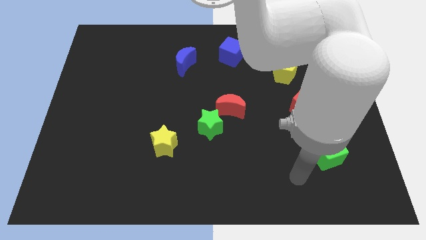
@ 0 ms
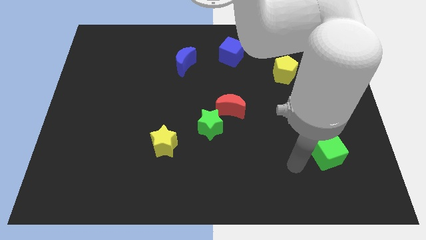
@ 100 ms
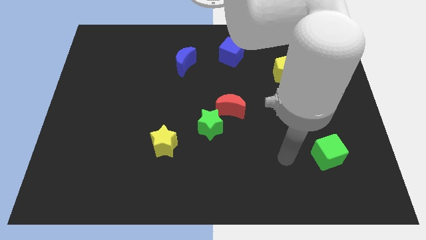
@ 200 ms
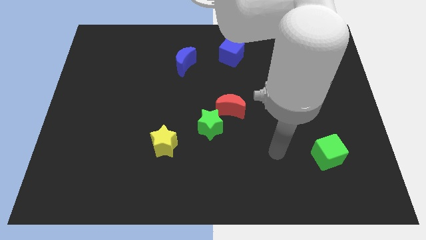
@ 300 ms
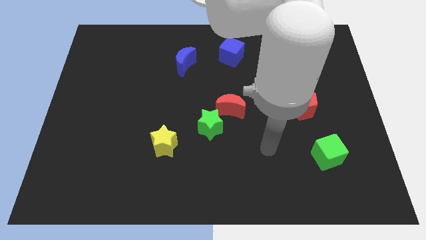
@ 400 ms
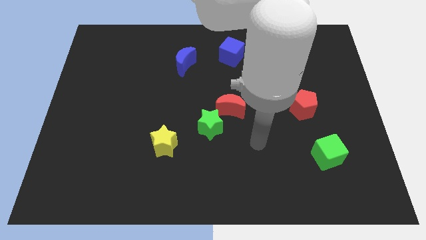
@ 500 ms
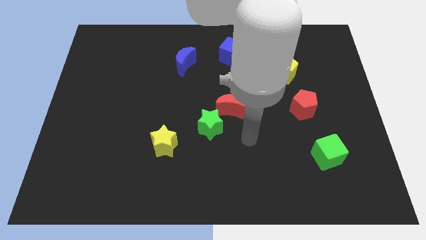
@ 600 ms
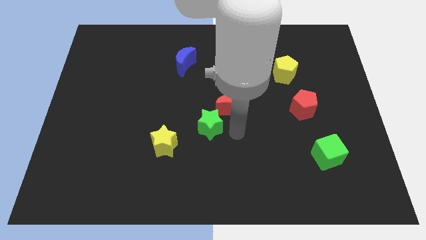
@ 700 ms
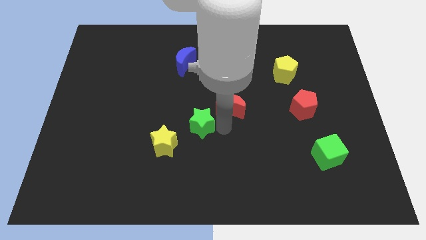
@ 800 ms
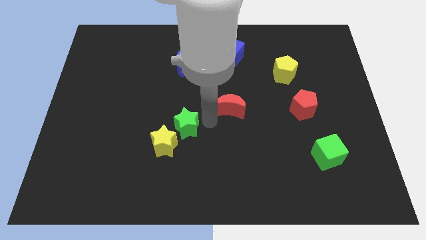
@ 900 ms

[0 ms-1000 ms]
move the red moon away from the green star

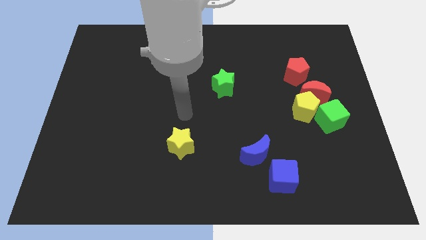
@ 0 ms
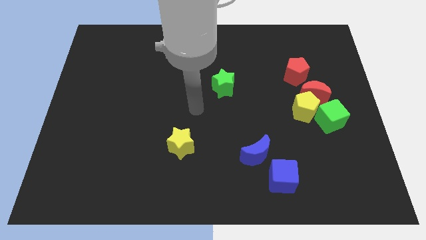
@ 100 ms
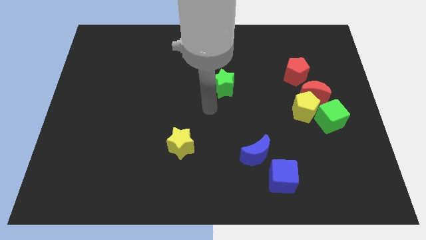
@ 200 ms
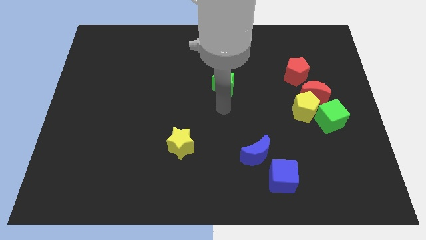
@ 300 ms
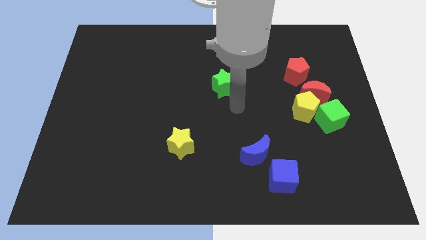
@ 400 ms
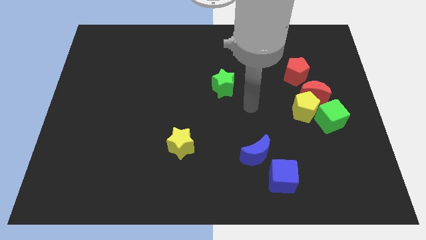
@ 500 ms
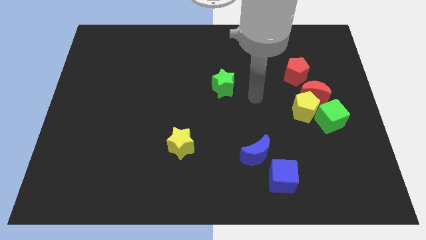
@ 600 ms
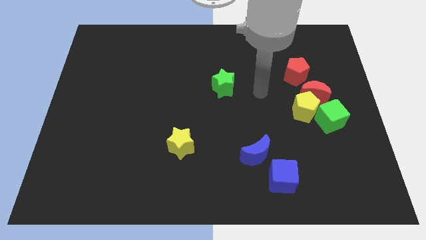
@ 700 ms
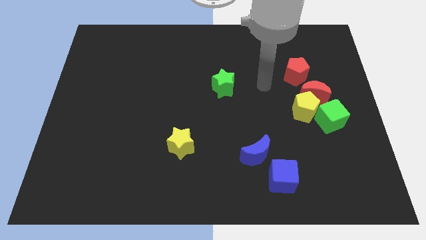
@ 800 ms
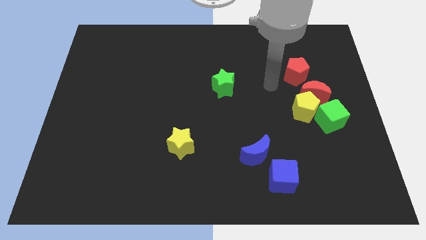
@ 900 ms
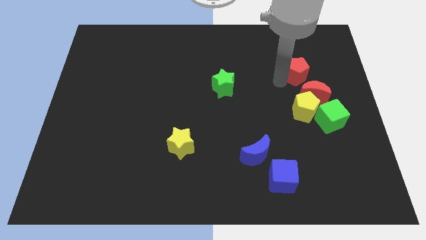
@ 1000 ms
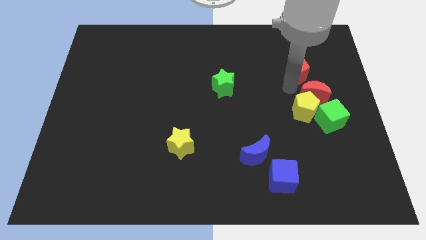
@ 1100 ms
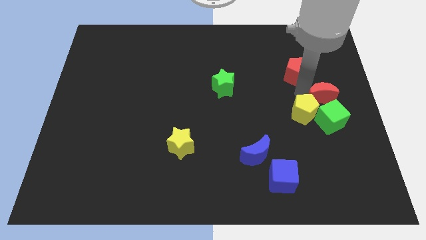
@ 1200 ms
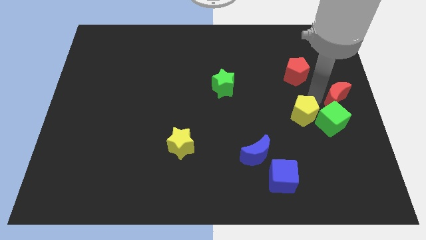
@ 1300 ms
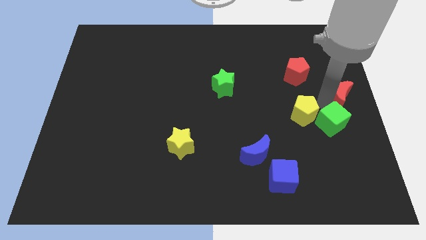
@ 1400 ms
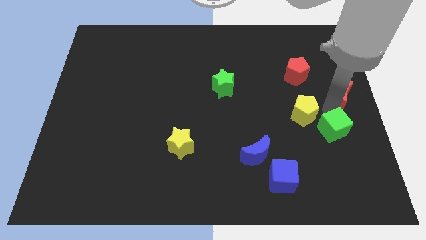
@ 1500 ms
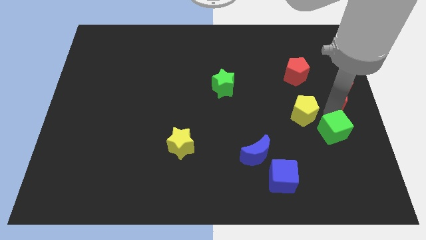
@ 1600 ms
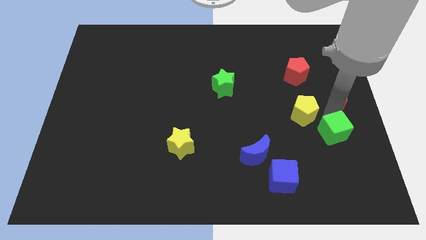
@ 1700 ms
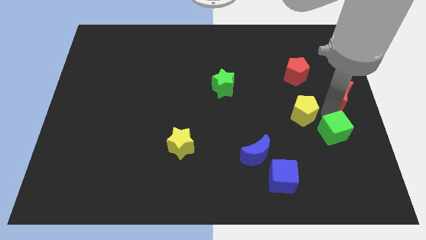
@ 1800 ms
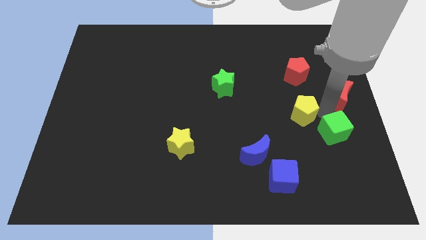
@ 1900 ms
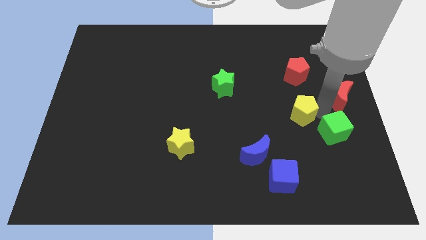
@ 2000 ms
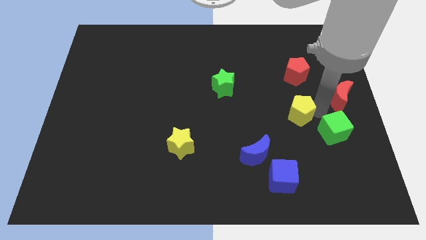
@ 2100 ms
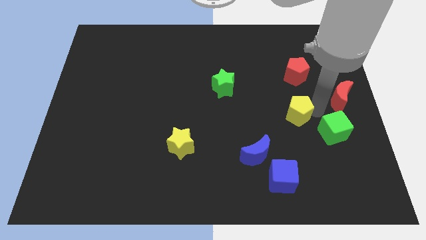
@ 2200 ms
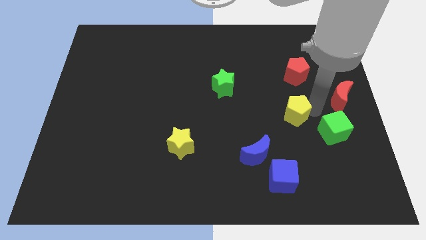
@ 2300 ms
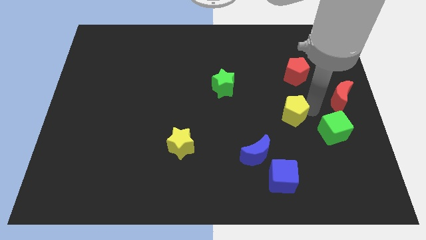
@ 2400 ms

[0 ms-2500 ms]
separate the yellow pentagon from the red moon and green cube

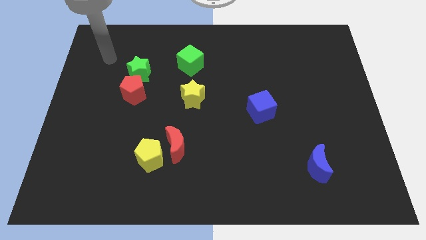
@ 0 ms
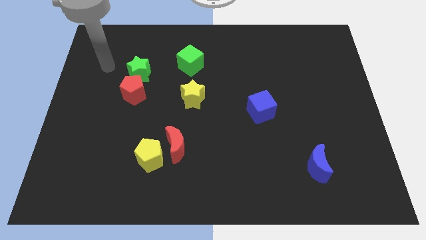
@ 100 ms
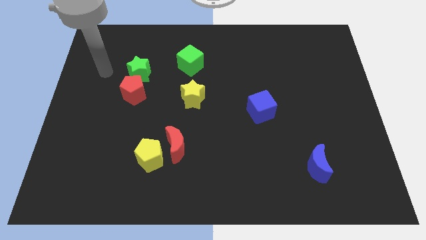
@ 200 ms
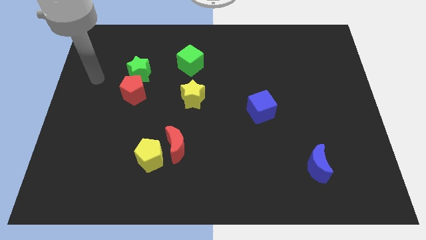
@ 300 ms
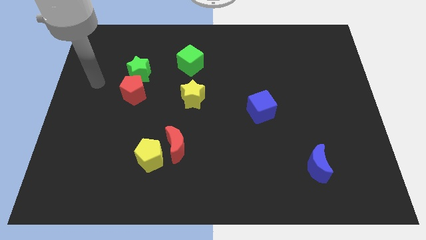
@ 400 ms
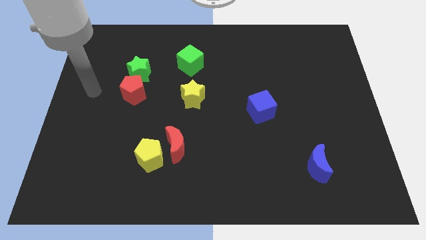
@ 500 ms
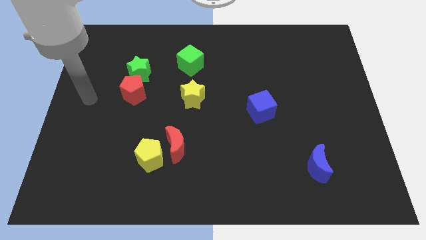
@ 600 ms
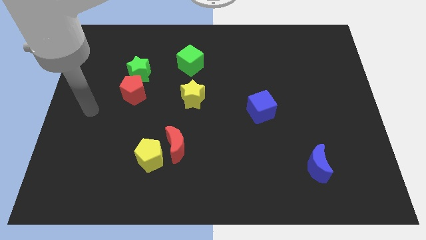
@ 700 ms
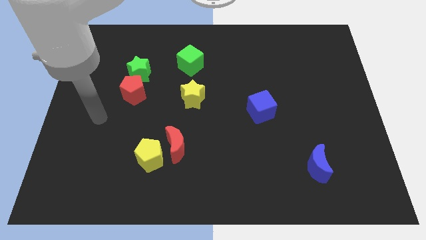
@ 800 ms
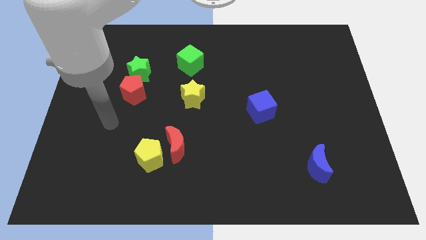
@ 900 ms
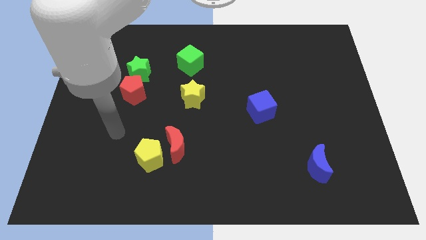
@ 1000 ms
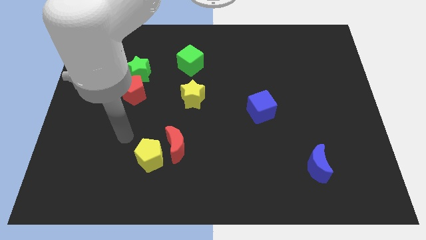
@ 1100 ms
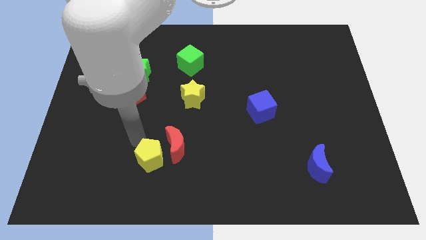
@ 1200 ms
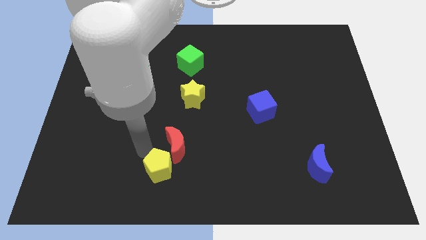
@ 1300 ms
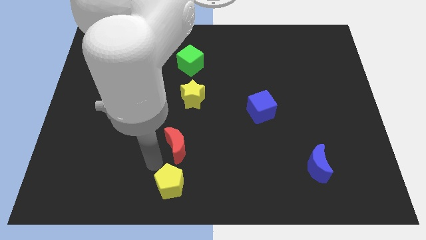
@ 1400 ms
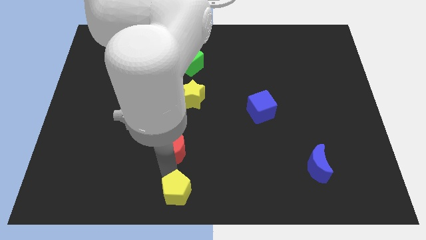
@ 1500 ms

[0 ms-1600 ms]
move the red moon away from the yellow pentagon

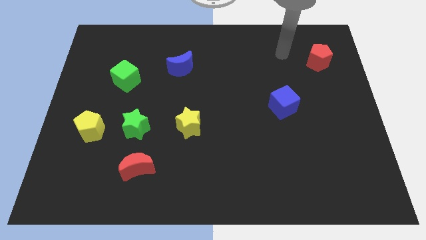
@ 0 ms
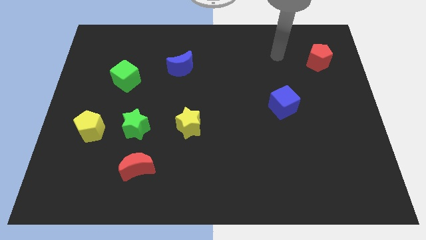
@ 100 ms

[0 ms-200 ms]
pull the red moon apart from the green star

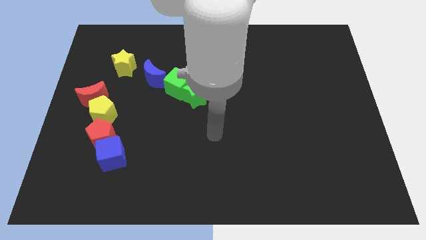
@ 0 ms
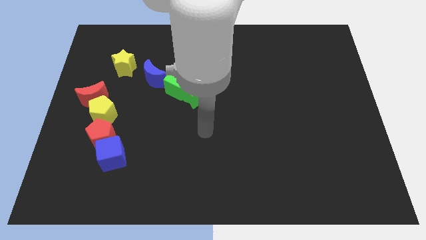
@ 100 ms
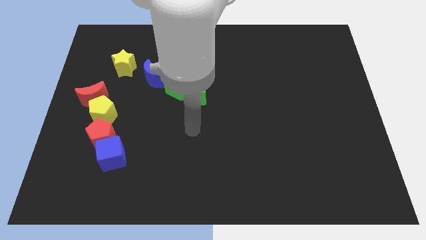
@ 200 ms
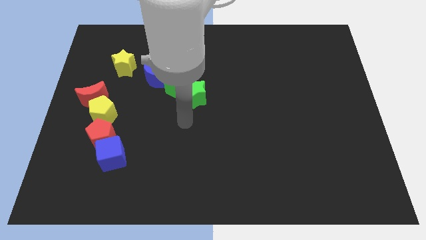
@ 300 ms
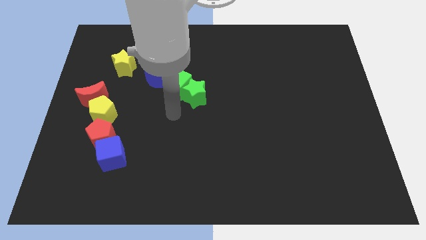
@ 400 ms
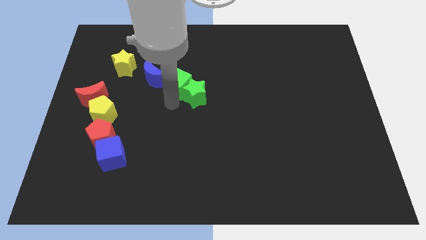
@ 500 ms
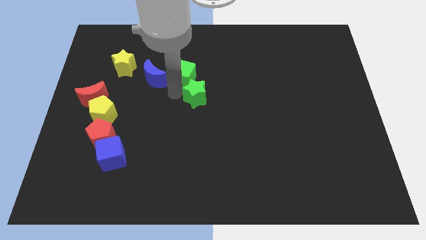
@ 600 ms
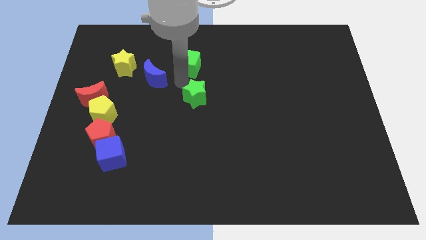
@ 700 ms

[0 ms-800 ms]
pull the green star apart from the green cube

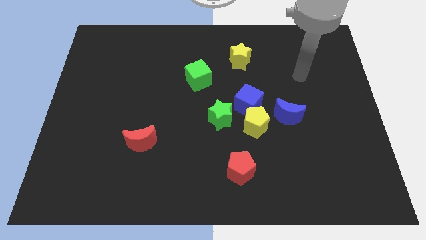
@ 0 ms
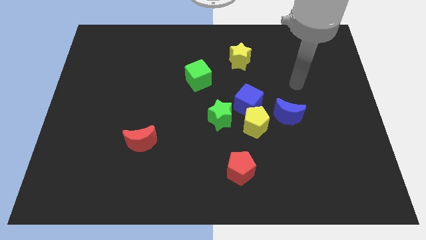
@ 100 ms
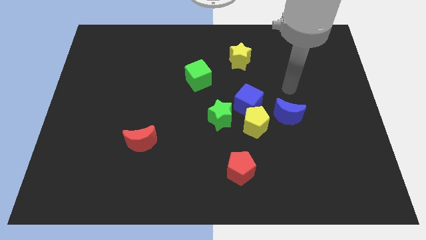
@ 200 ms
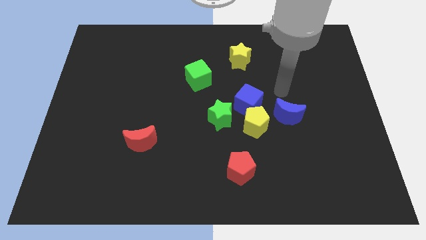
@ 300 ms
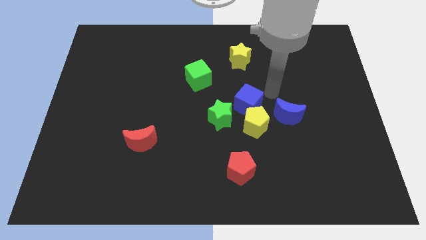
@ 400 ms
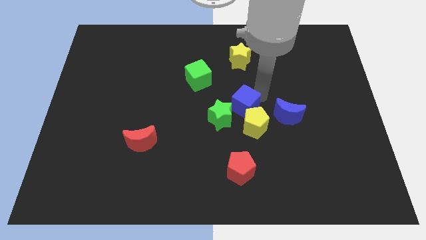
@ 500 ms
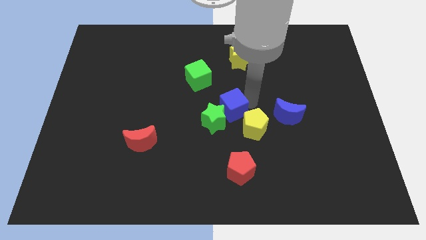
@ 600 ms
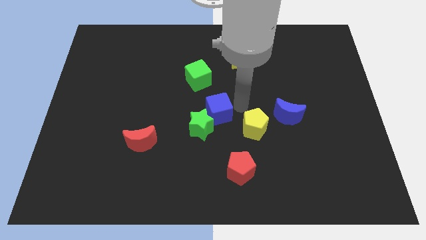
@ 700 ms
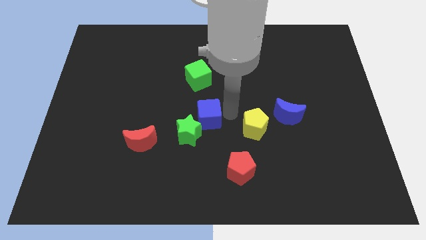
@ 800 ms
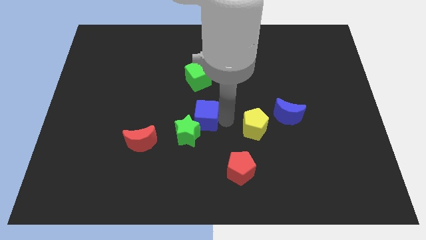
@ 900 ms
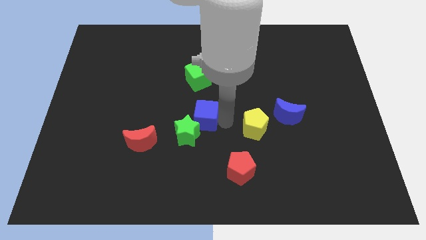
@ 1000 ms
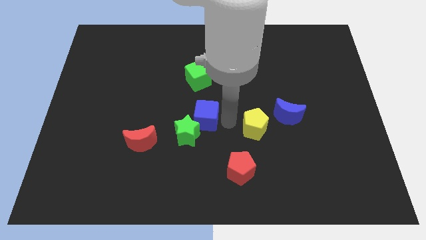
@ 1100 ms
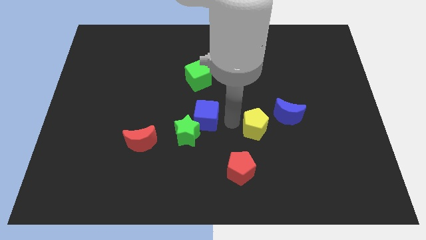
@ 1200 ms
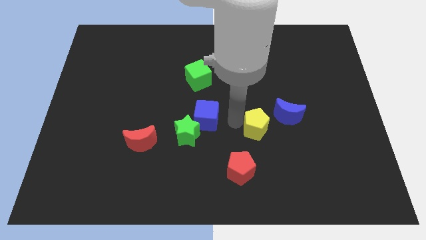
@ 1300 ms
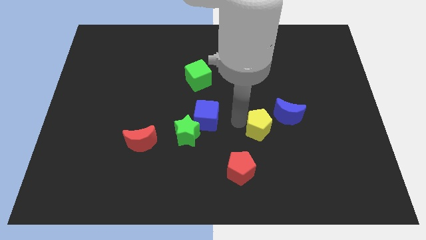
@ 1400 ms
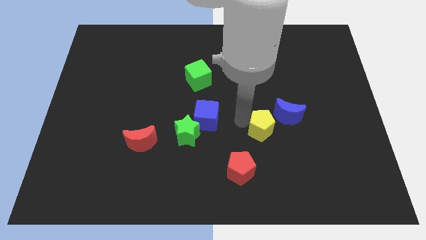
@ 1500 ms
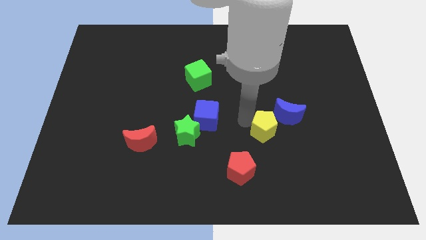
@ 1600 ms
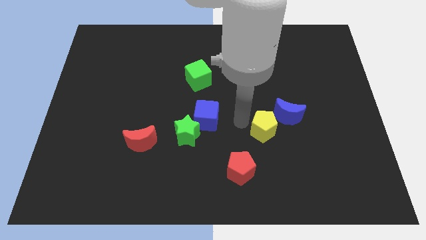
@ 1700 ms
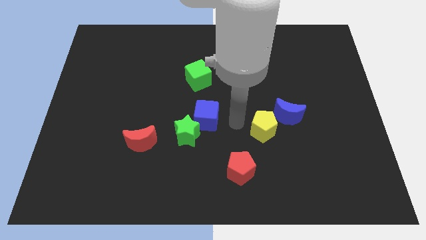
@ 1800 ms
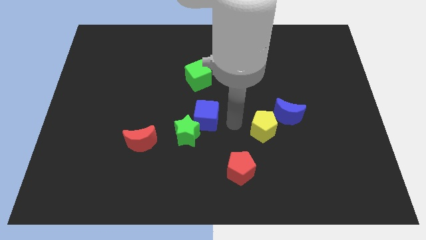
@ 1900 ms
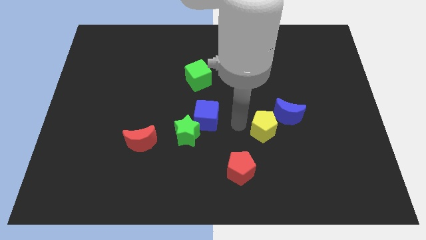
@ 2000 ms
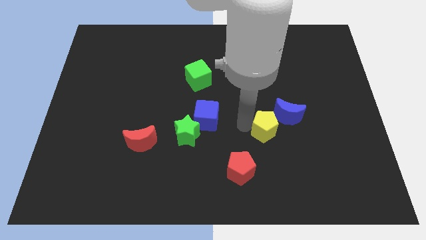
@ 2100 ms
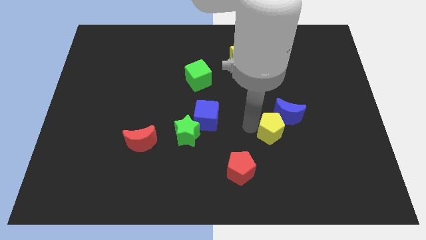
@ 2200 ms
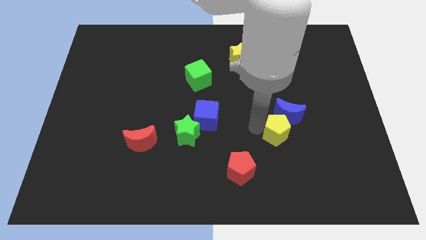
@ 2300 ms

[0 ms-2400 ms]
pull the yellow pentagon apart from the blue cube, green star, and blue moon

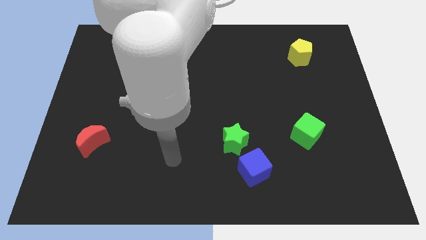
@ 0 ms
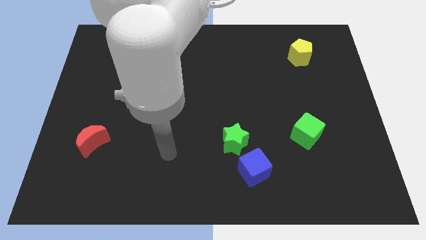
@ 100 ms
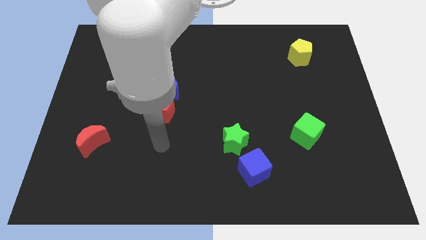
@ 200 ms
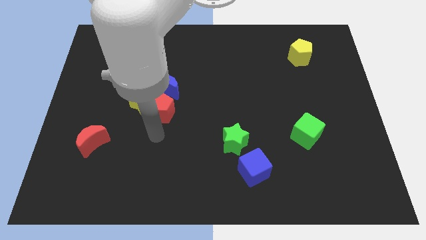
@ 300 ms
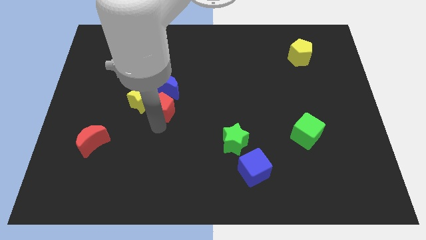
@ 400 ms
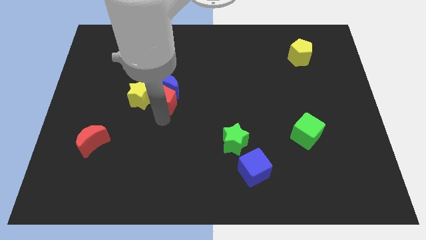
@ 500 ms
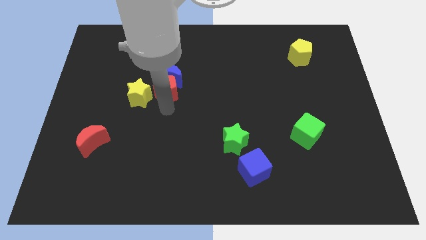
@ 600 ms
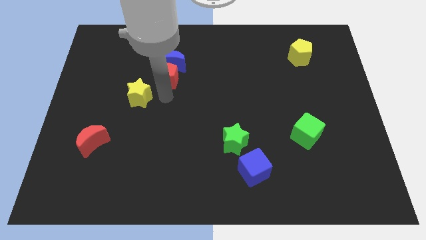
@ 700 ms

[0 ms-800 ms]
move the yellow star away from the red pentagon and blue moon

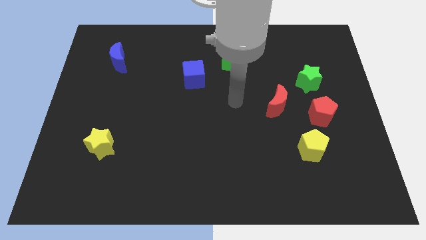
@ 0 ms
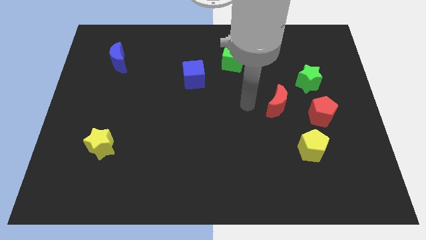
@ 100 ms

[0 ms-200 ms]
pull the yellow pentagon apart from the red pentagon
